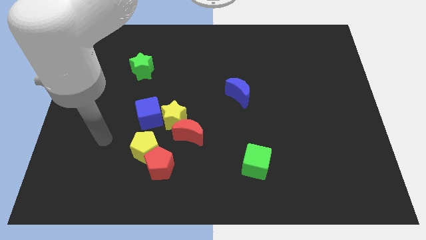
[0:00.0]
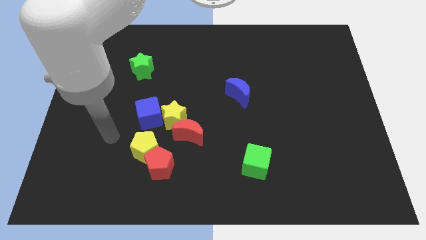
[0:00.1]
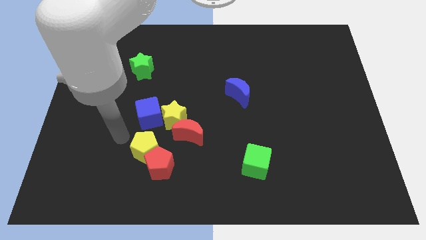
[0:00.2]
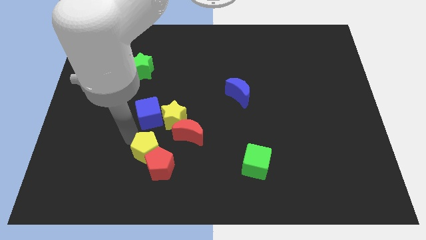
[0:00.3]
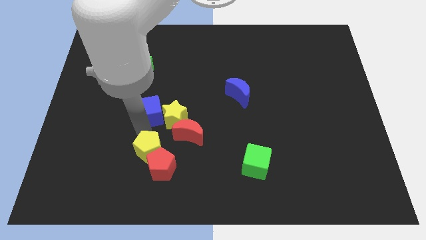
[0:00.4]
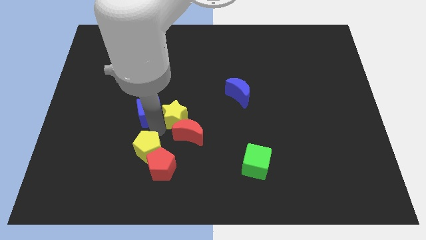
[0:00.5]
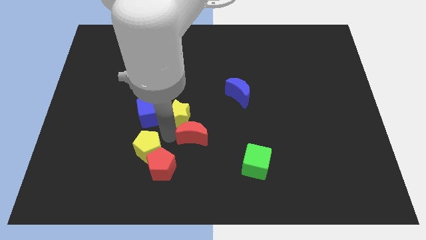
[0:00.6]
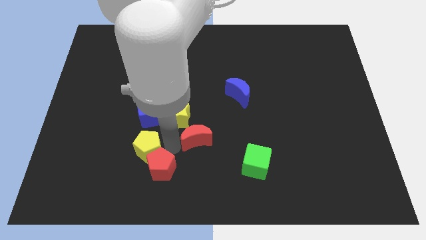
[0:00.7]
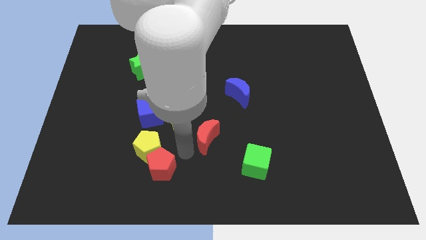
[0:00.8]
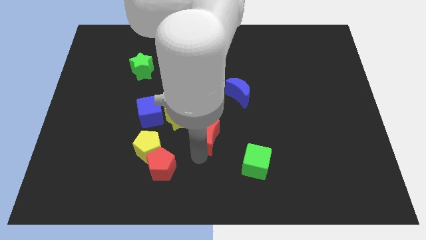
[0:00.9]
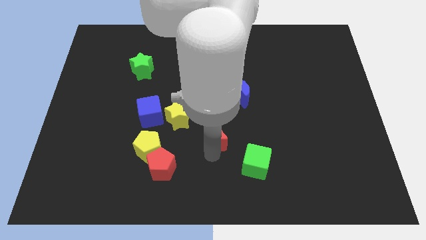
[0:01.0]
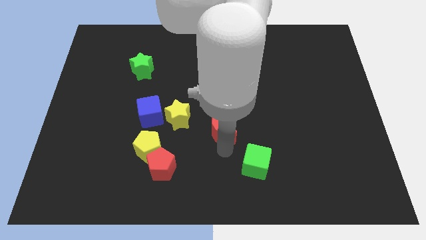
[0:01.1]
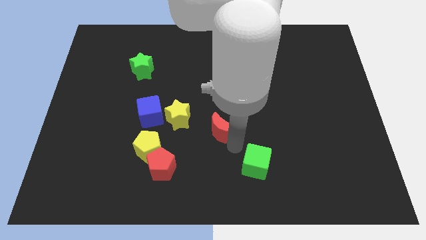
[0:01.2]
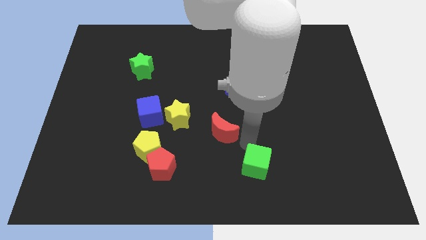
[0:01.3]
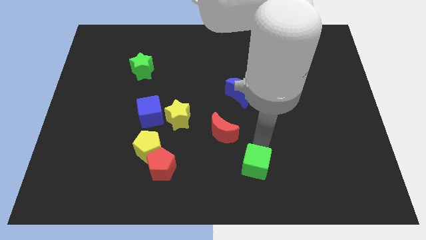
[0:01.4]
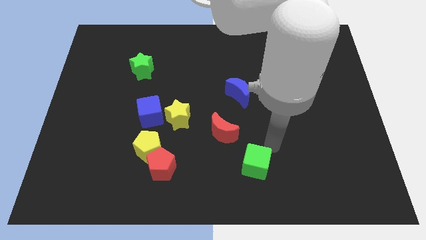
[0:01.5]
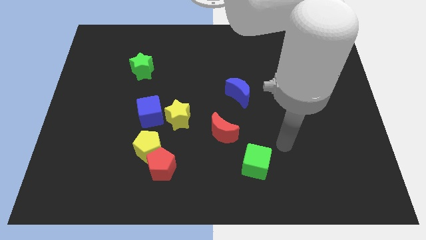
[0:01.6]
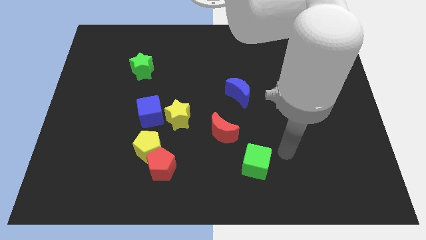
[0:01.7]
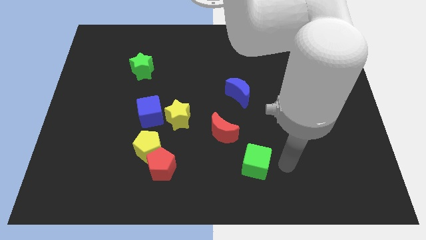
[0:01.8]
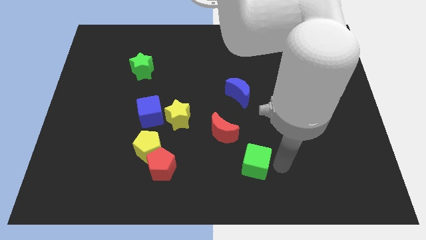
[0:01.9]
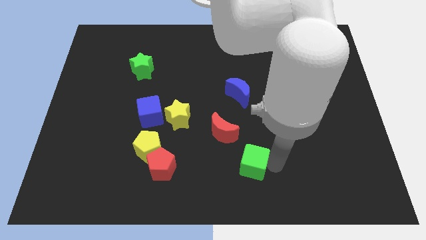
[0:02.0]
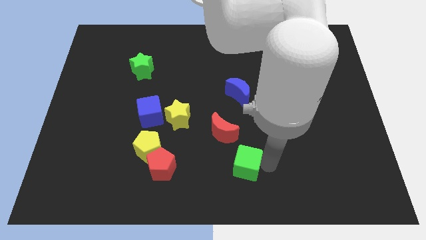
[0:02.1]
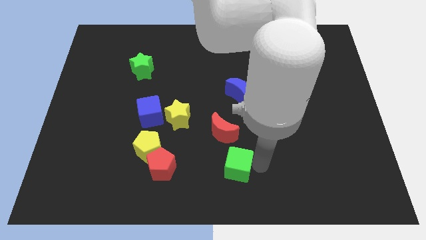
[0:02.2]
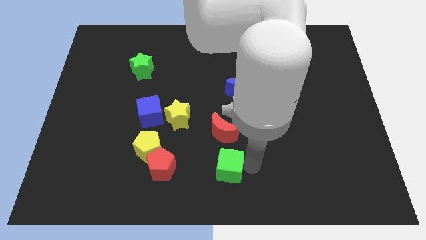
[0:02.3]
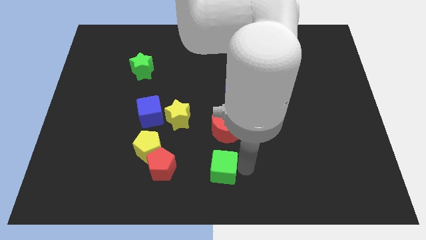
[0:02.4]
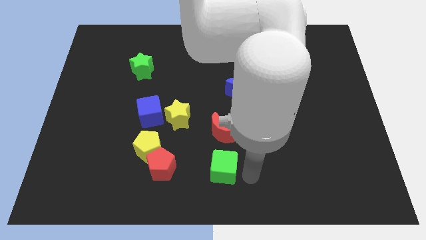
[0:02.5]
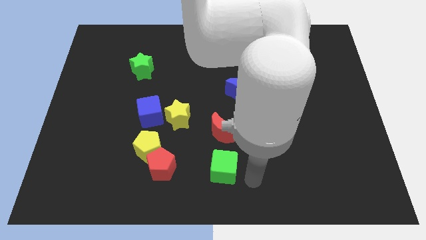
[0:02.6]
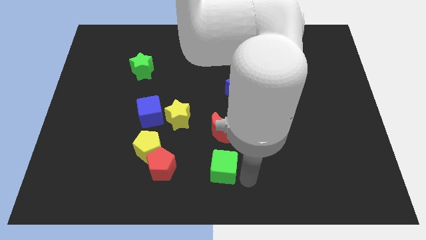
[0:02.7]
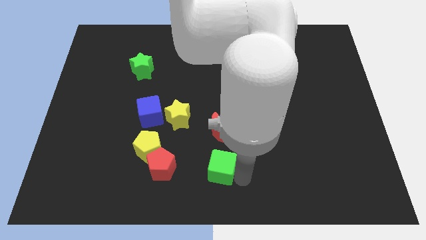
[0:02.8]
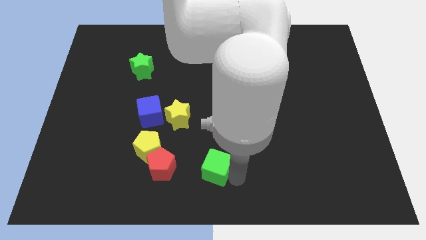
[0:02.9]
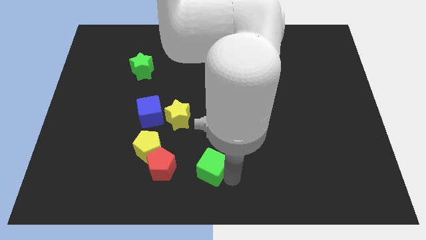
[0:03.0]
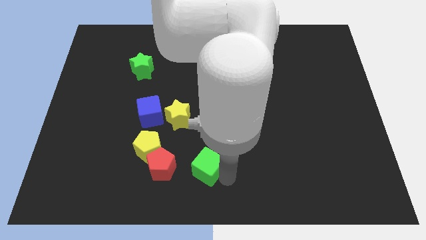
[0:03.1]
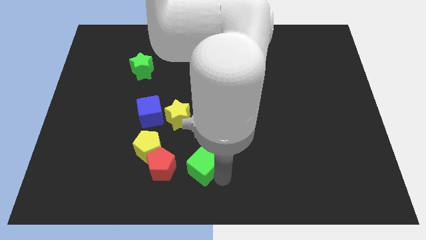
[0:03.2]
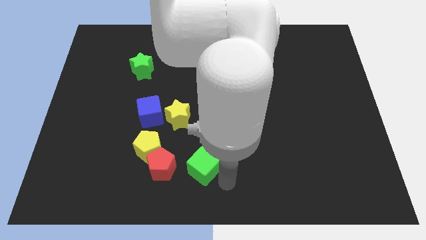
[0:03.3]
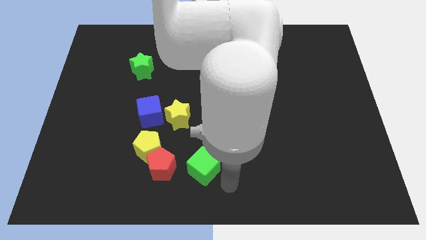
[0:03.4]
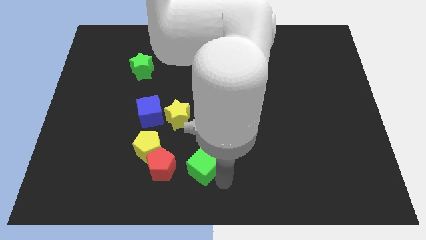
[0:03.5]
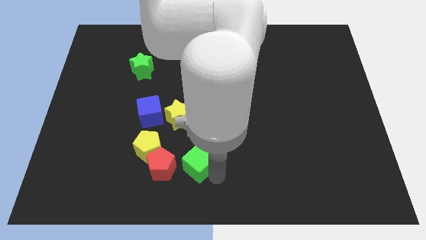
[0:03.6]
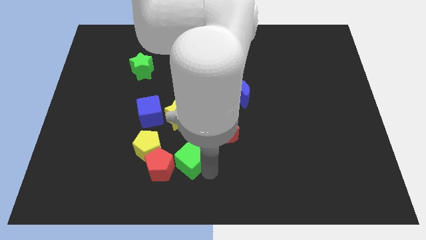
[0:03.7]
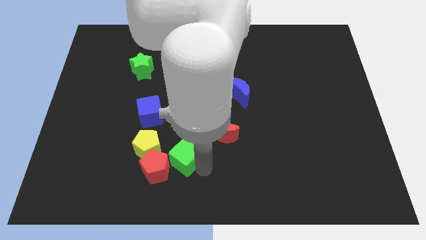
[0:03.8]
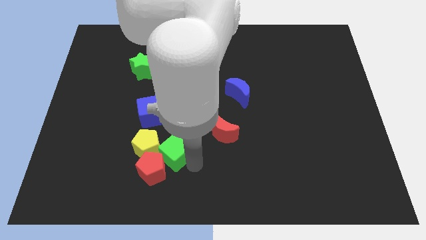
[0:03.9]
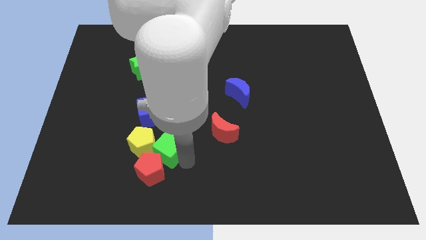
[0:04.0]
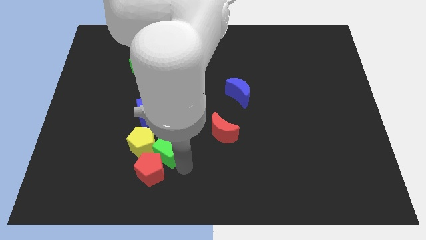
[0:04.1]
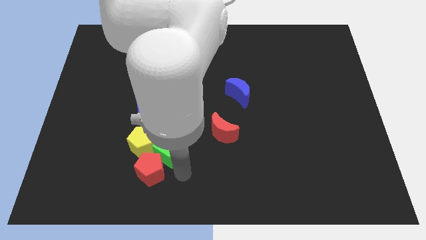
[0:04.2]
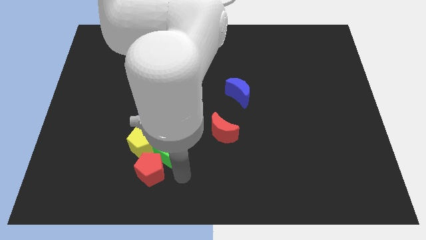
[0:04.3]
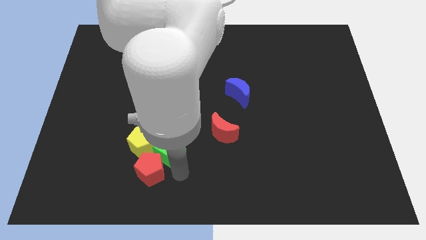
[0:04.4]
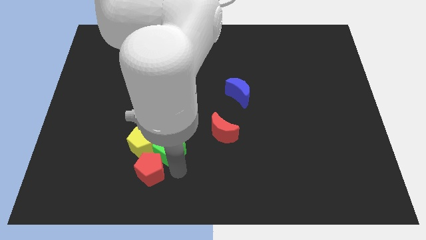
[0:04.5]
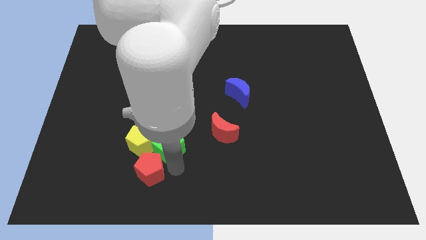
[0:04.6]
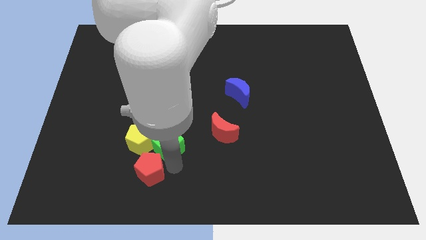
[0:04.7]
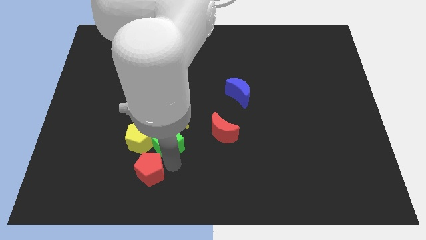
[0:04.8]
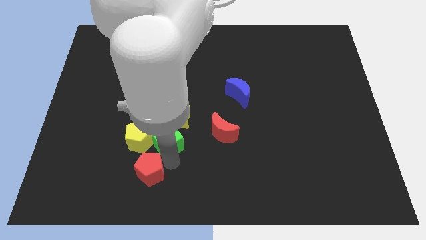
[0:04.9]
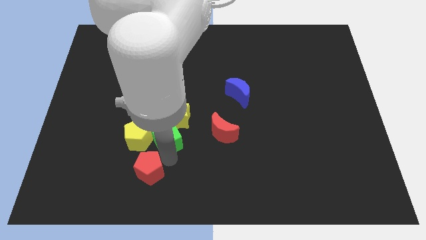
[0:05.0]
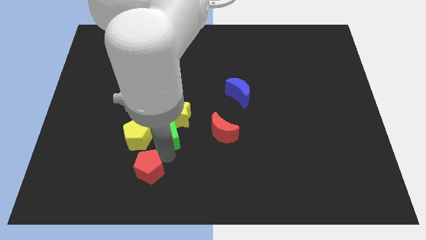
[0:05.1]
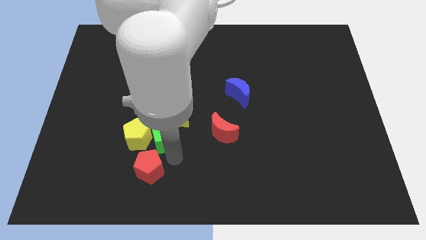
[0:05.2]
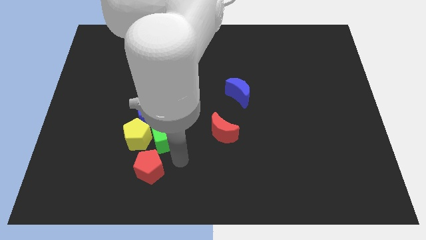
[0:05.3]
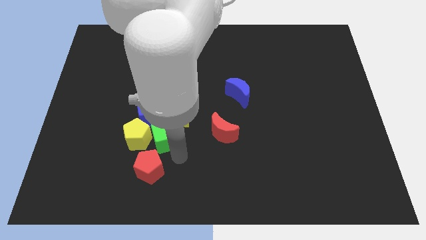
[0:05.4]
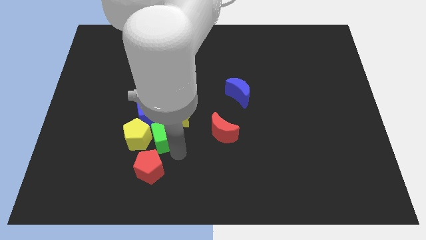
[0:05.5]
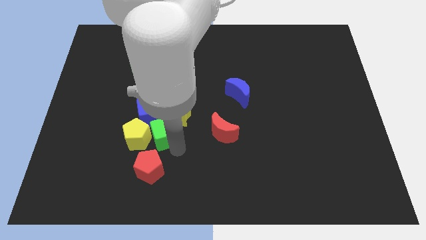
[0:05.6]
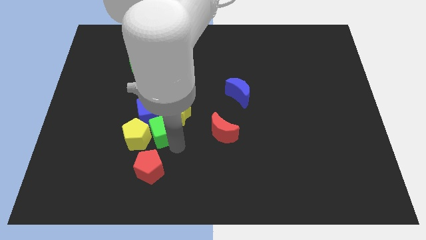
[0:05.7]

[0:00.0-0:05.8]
push the green cube next to the blue cube

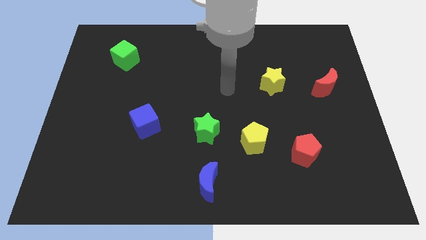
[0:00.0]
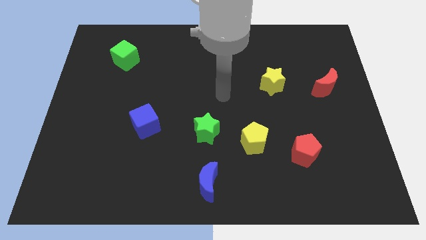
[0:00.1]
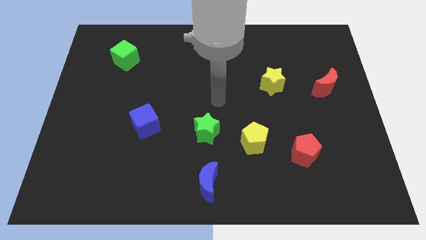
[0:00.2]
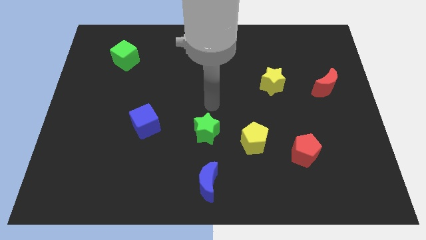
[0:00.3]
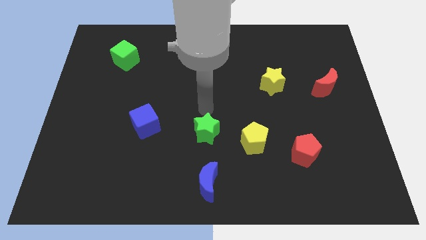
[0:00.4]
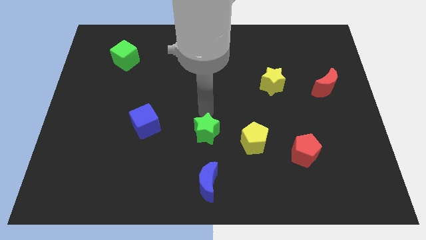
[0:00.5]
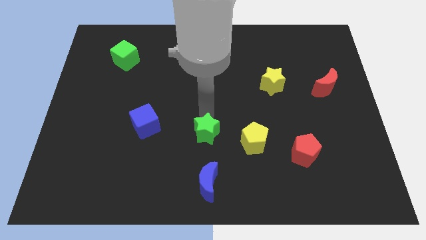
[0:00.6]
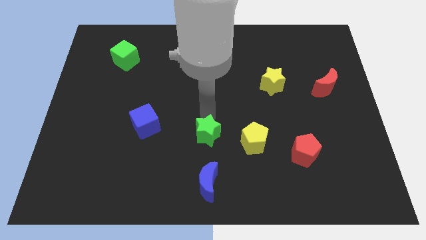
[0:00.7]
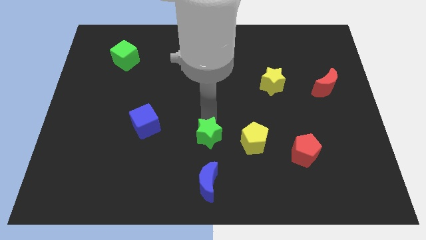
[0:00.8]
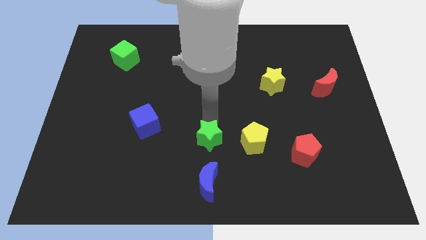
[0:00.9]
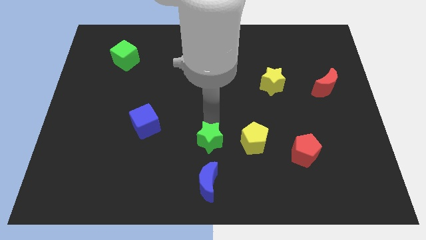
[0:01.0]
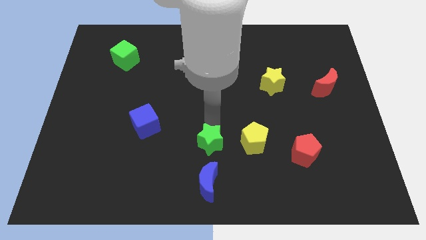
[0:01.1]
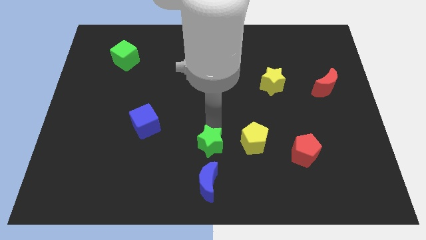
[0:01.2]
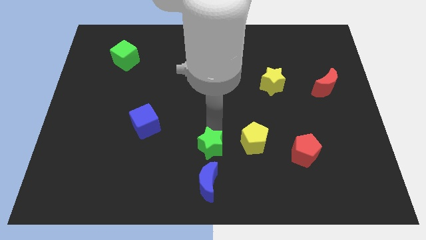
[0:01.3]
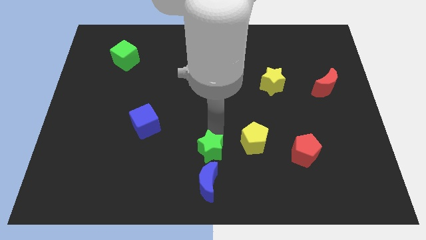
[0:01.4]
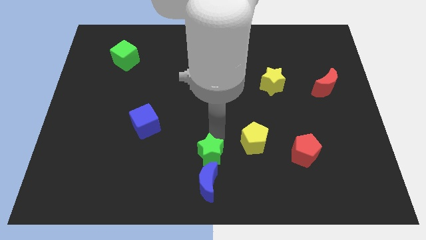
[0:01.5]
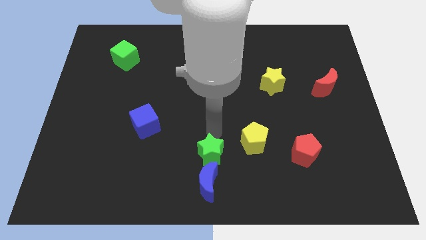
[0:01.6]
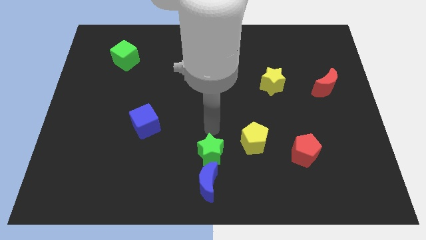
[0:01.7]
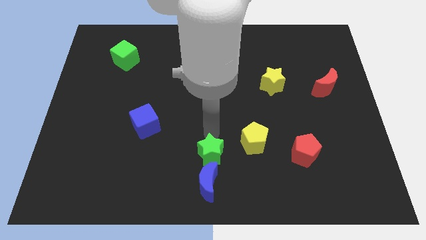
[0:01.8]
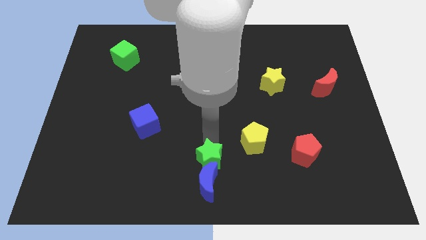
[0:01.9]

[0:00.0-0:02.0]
slide the green star towards the blue moon
